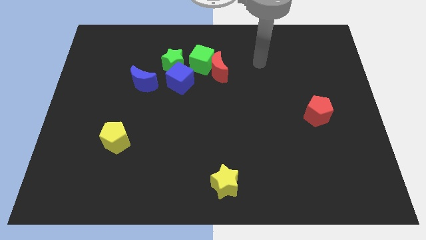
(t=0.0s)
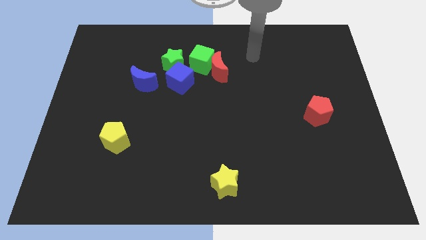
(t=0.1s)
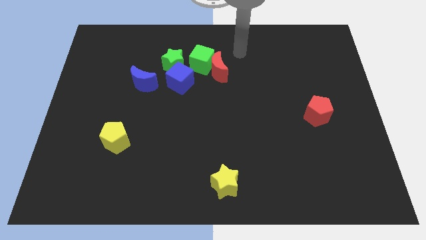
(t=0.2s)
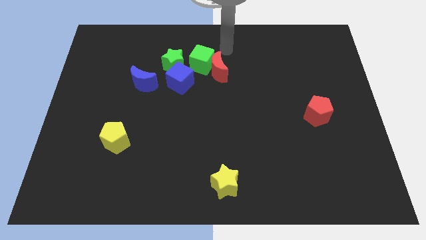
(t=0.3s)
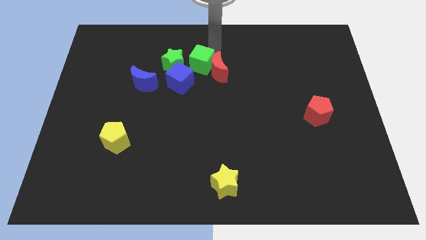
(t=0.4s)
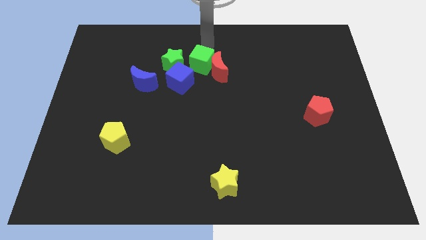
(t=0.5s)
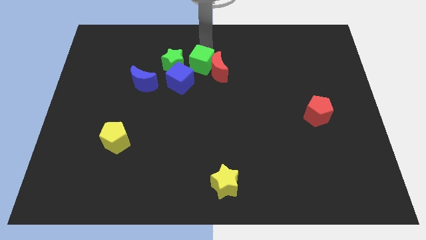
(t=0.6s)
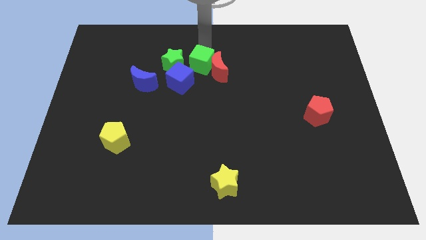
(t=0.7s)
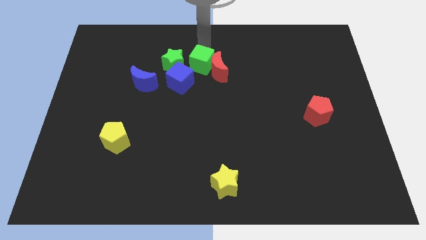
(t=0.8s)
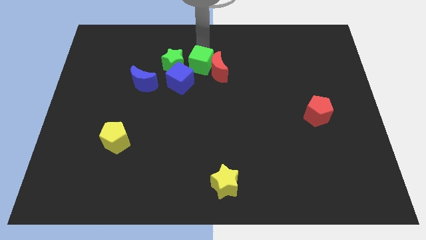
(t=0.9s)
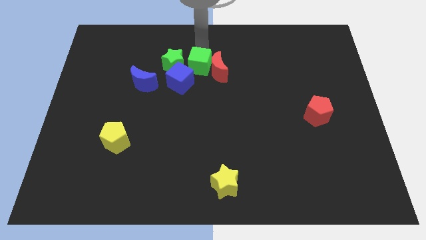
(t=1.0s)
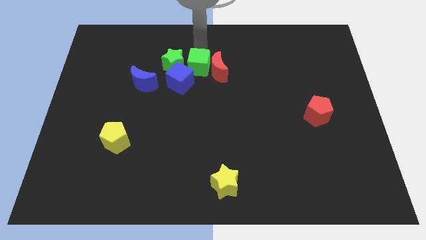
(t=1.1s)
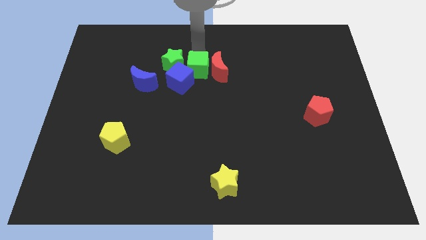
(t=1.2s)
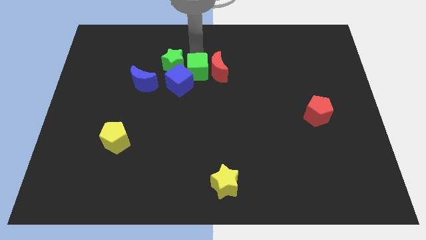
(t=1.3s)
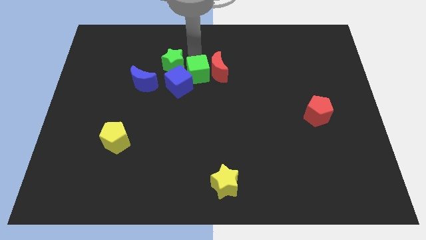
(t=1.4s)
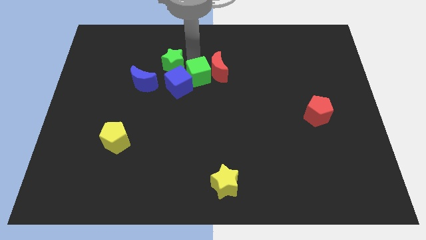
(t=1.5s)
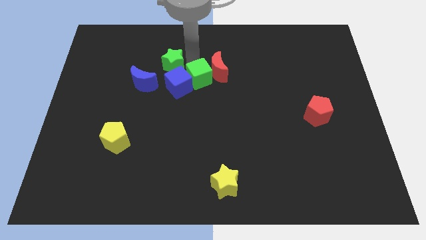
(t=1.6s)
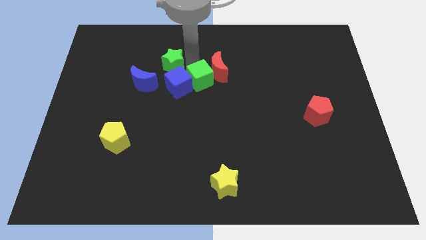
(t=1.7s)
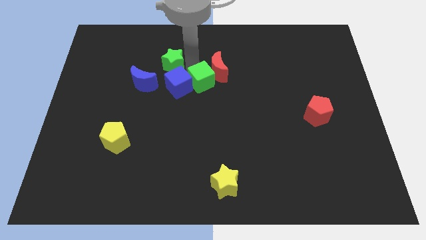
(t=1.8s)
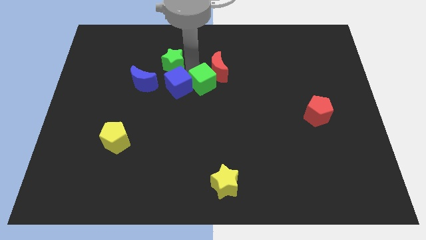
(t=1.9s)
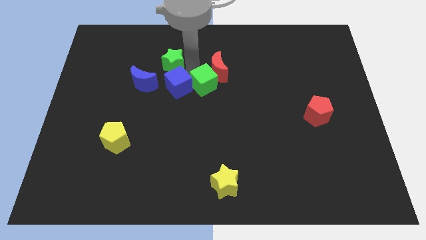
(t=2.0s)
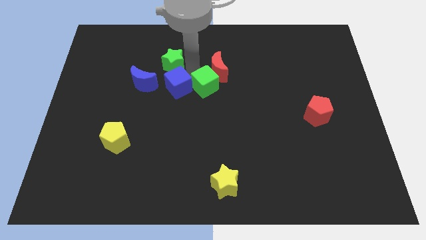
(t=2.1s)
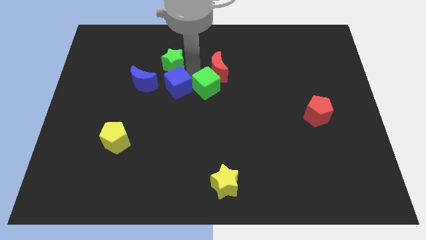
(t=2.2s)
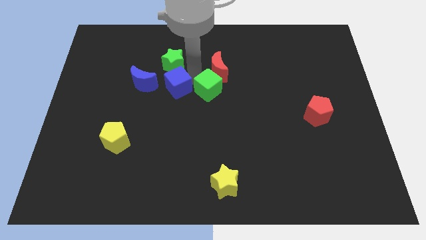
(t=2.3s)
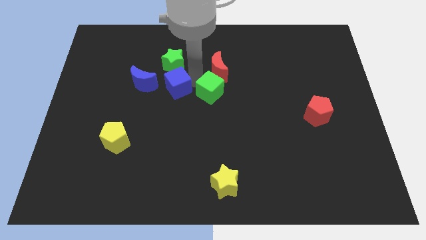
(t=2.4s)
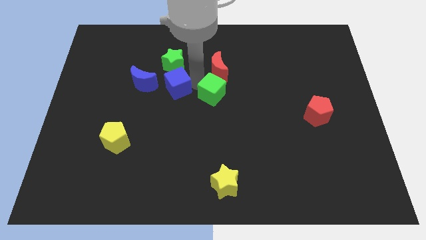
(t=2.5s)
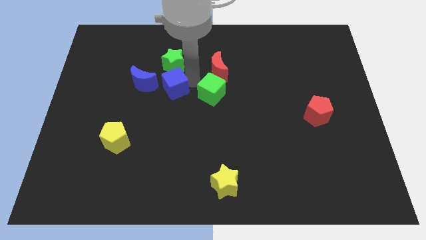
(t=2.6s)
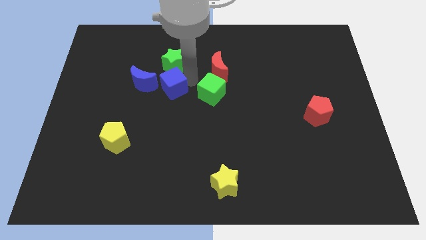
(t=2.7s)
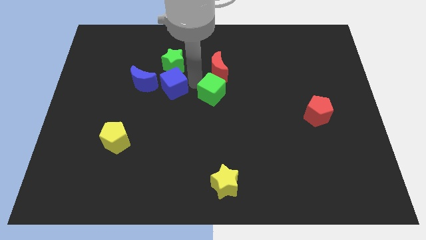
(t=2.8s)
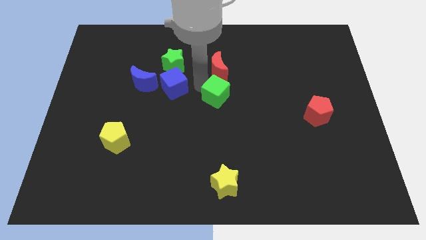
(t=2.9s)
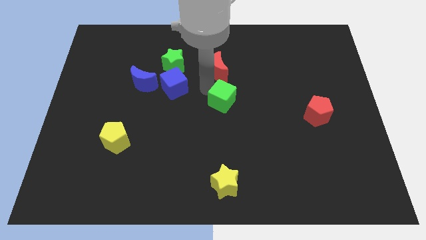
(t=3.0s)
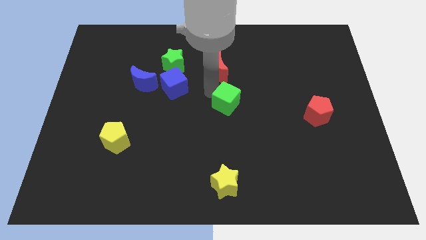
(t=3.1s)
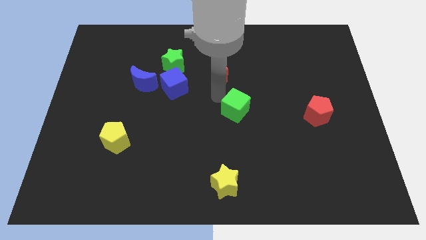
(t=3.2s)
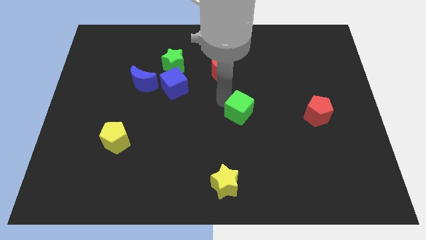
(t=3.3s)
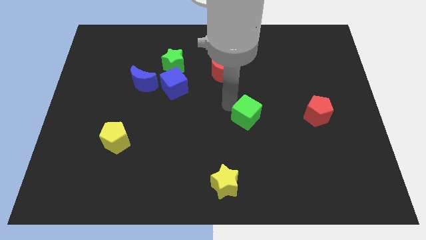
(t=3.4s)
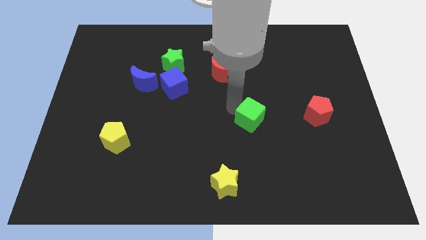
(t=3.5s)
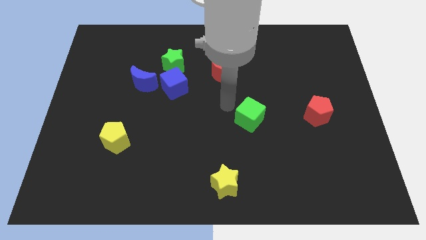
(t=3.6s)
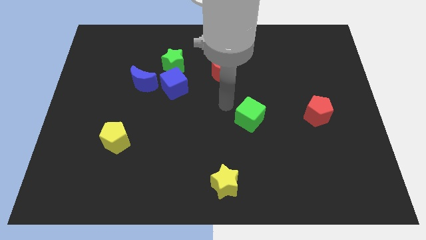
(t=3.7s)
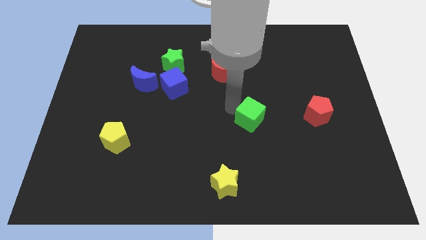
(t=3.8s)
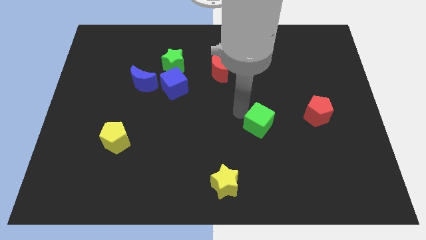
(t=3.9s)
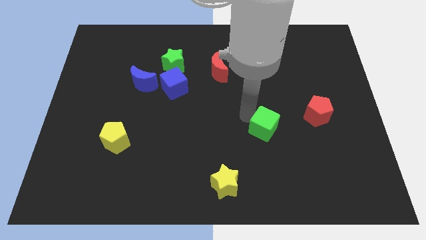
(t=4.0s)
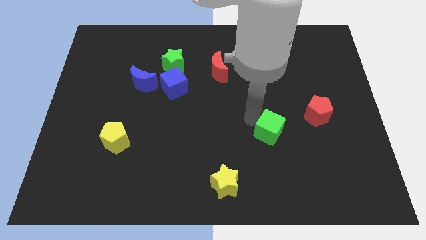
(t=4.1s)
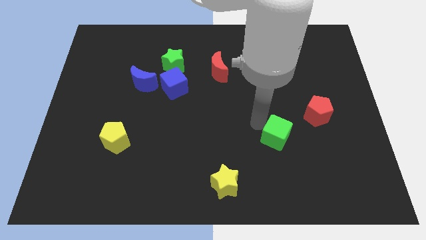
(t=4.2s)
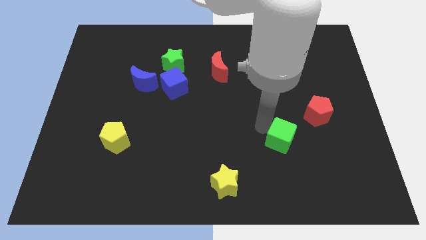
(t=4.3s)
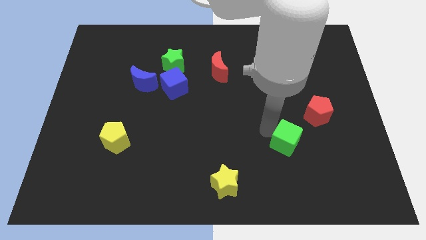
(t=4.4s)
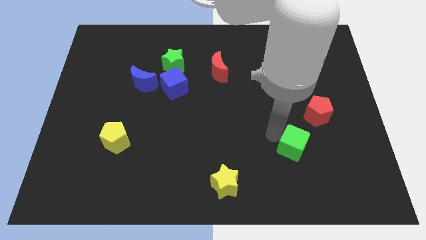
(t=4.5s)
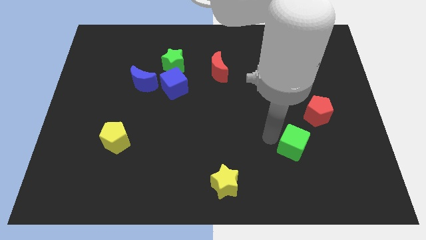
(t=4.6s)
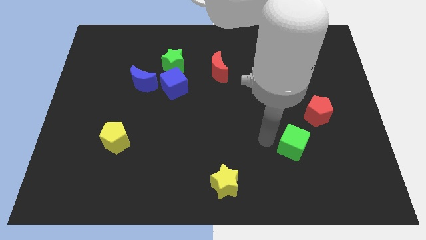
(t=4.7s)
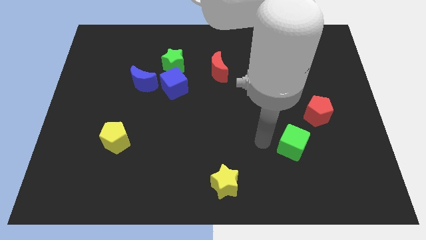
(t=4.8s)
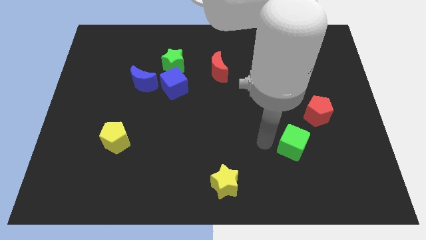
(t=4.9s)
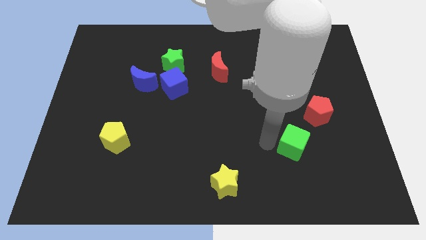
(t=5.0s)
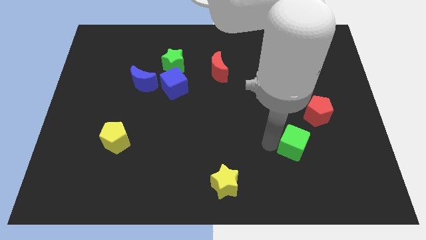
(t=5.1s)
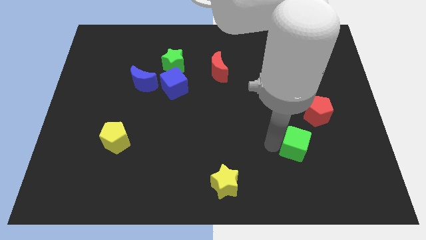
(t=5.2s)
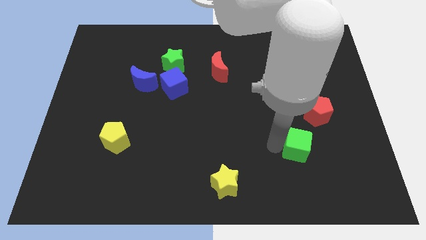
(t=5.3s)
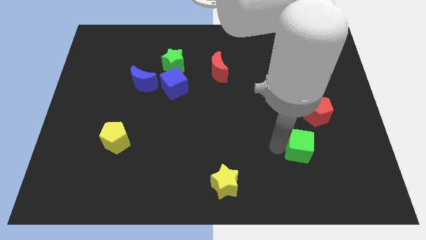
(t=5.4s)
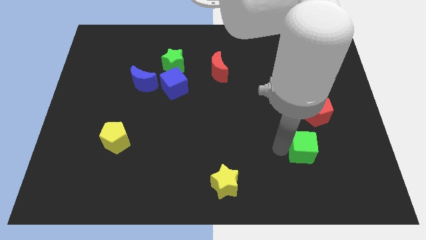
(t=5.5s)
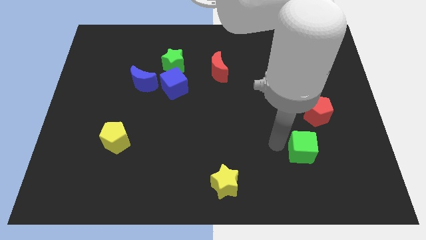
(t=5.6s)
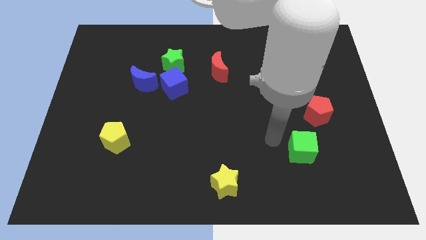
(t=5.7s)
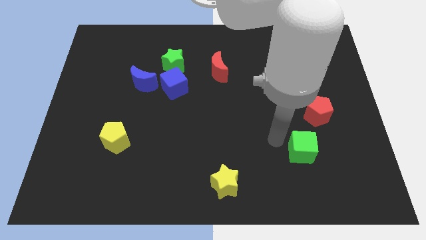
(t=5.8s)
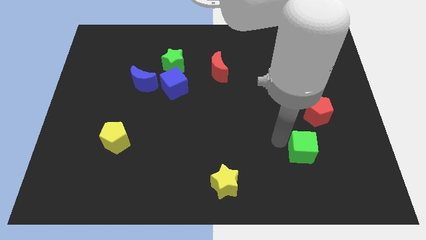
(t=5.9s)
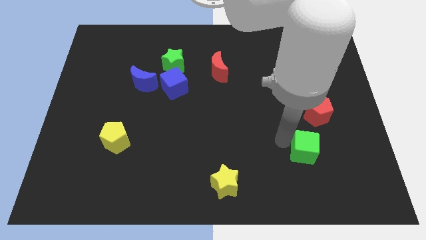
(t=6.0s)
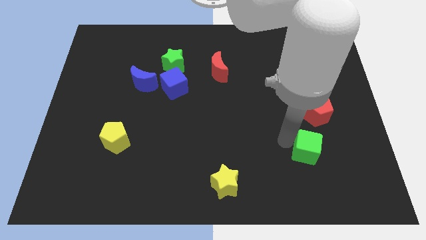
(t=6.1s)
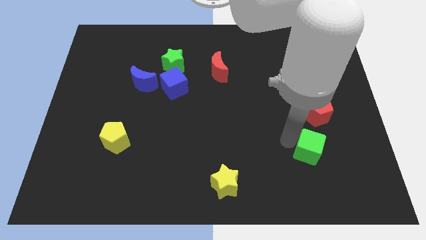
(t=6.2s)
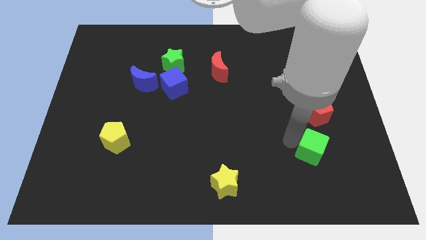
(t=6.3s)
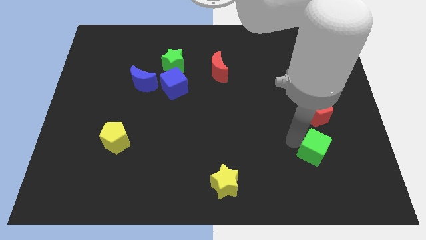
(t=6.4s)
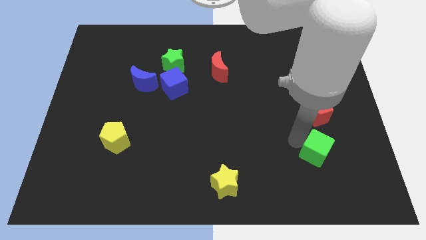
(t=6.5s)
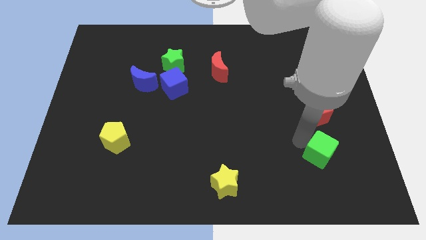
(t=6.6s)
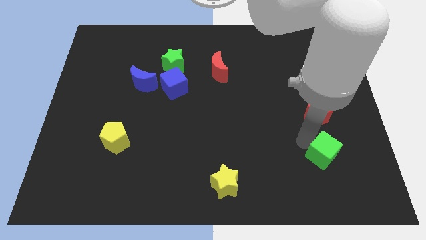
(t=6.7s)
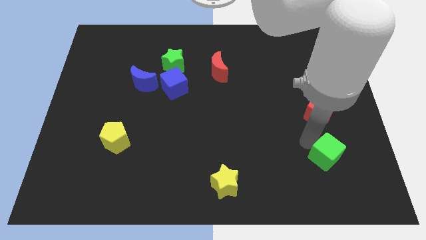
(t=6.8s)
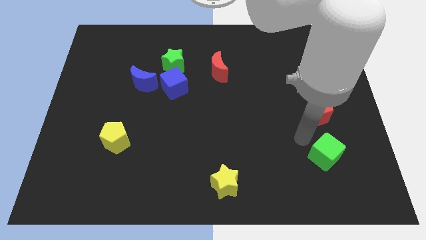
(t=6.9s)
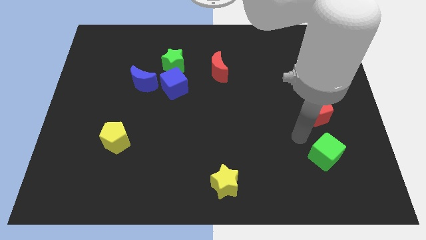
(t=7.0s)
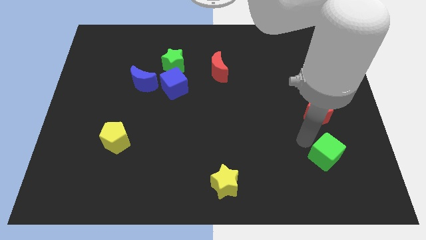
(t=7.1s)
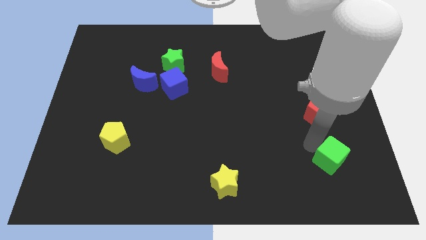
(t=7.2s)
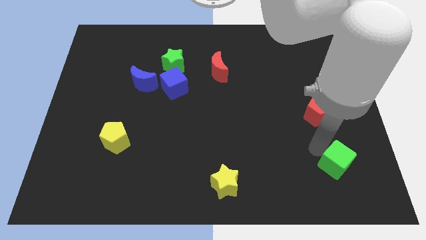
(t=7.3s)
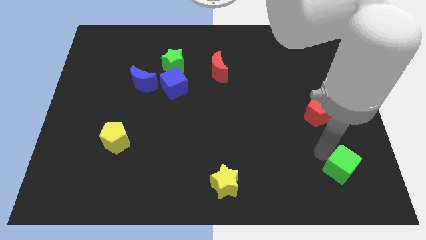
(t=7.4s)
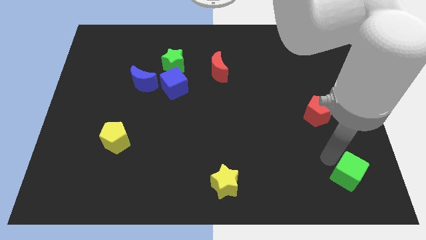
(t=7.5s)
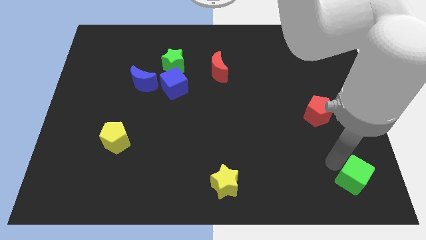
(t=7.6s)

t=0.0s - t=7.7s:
slide the green cube to the bottom right of the board

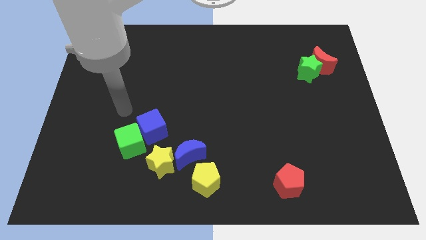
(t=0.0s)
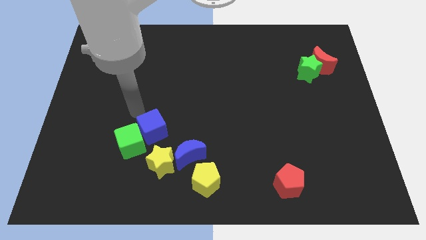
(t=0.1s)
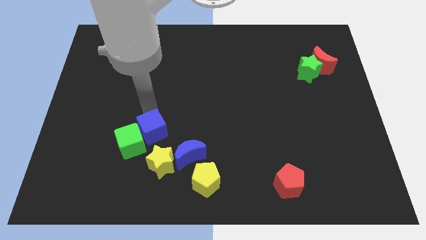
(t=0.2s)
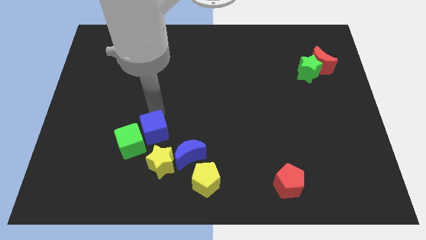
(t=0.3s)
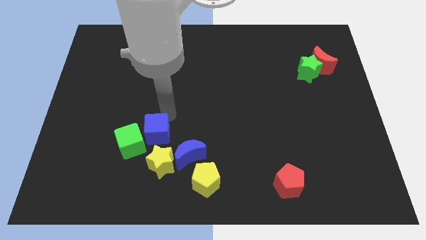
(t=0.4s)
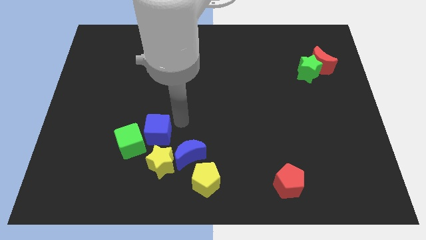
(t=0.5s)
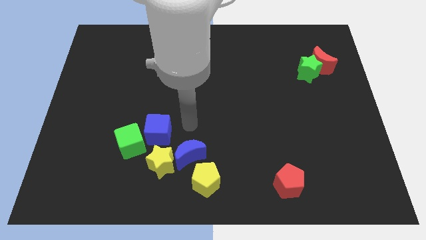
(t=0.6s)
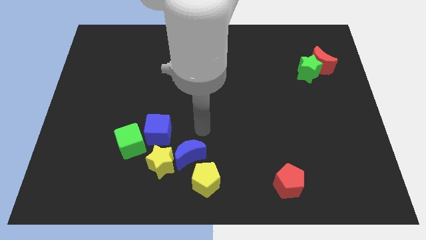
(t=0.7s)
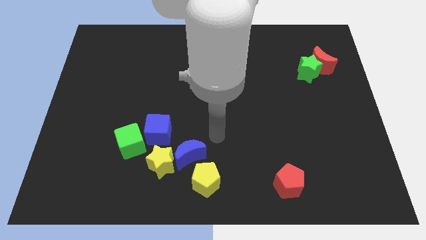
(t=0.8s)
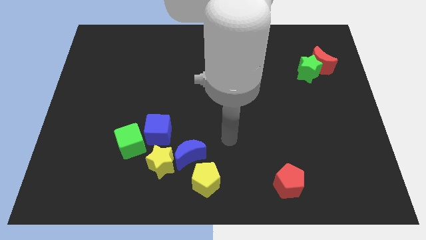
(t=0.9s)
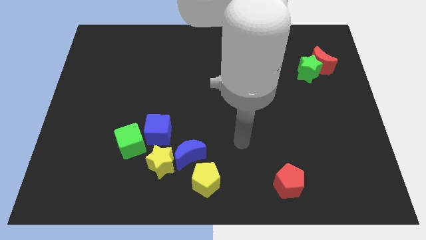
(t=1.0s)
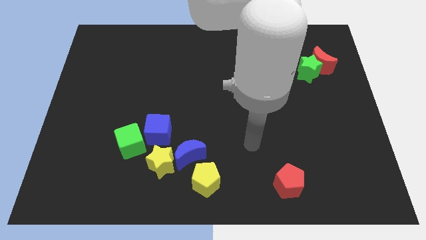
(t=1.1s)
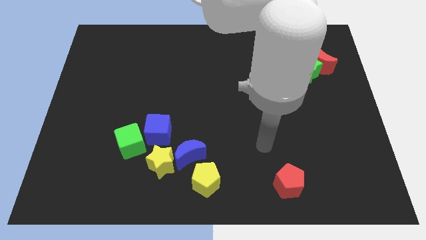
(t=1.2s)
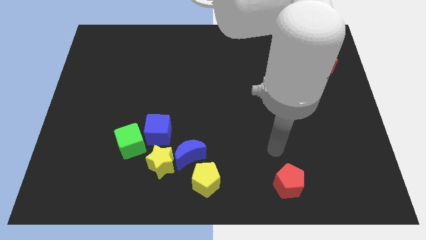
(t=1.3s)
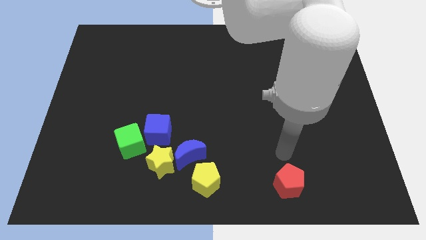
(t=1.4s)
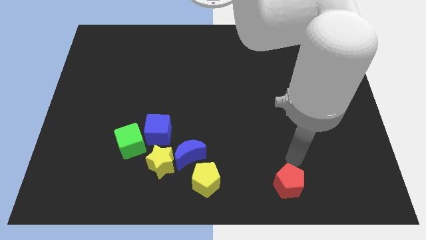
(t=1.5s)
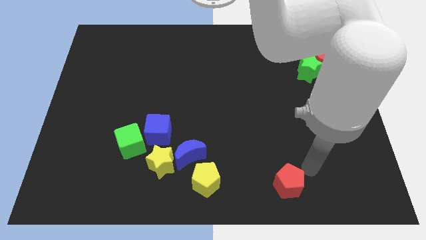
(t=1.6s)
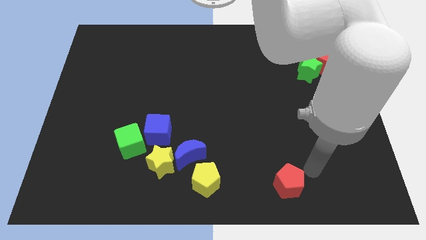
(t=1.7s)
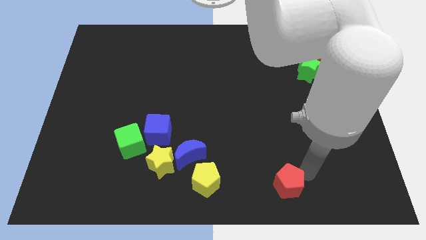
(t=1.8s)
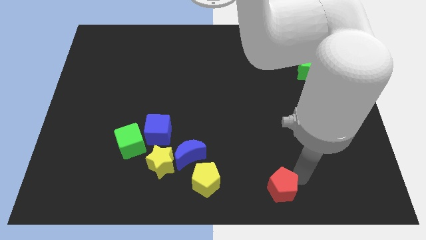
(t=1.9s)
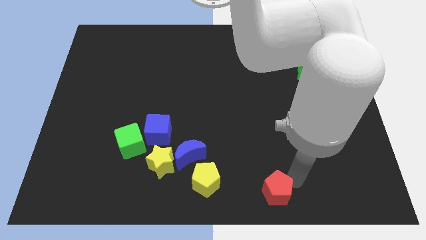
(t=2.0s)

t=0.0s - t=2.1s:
put the red pentagon to the bottom side
